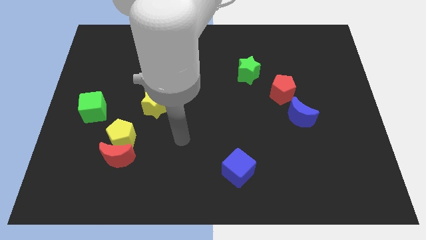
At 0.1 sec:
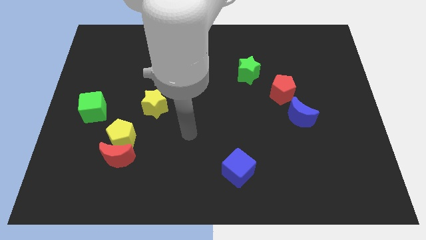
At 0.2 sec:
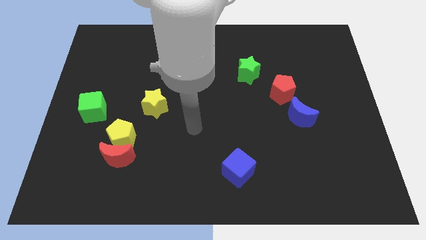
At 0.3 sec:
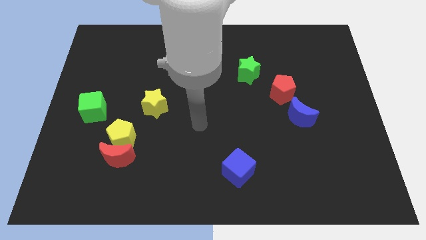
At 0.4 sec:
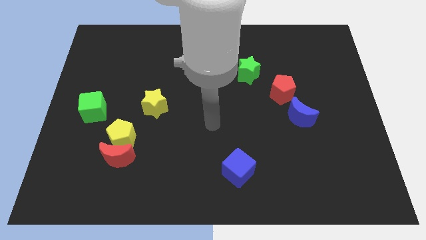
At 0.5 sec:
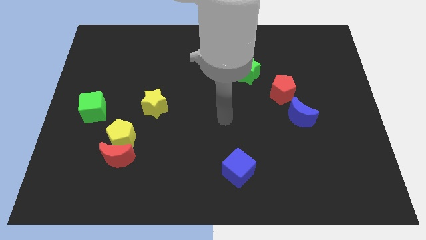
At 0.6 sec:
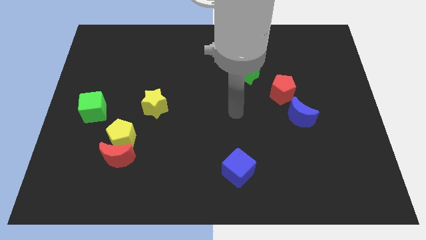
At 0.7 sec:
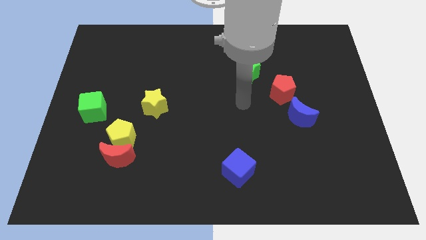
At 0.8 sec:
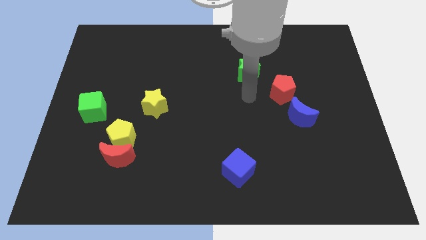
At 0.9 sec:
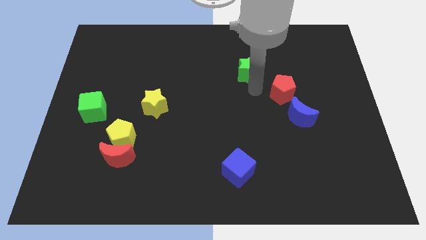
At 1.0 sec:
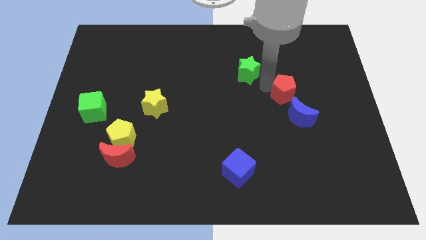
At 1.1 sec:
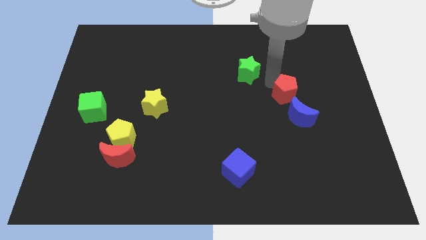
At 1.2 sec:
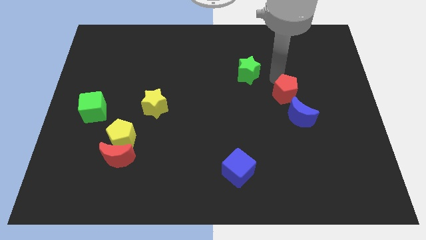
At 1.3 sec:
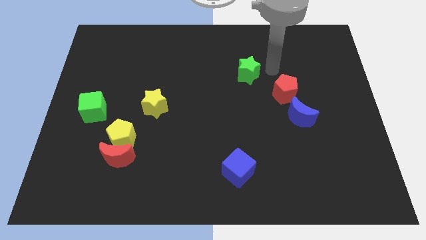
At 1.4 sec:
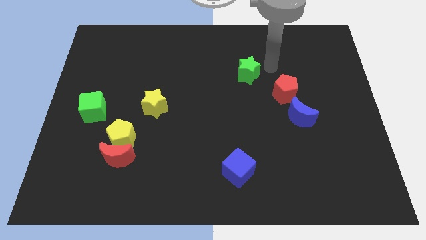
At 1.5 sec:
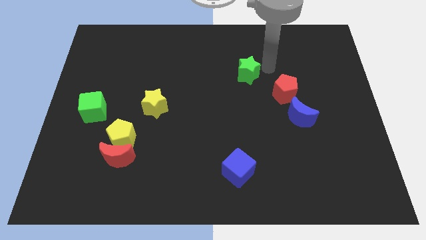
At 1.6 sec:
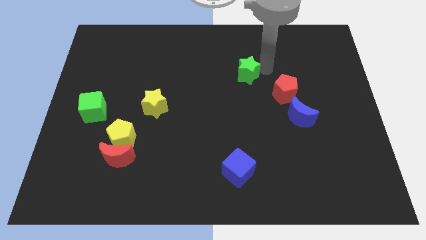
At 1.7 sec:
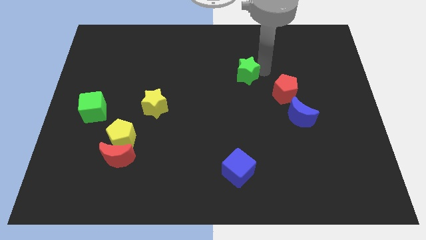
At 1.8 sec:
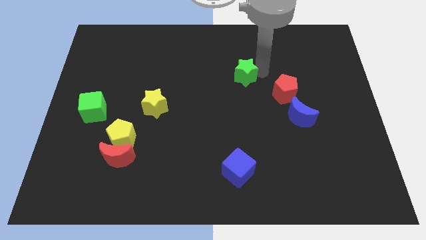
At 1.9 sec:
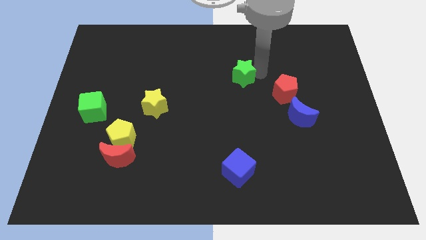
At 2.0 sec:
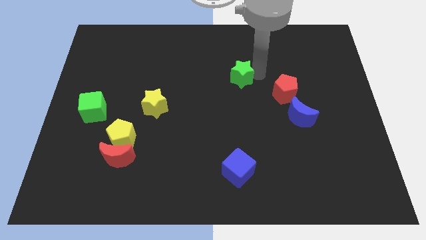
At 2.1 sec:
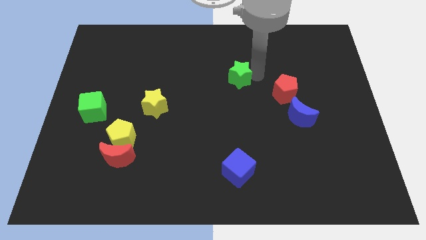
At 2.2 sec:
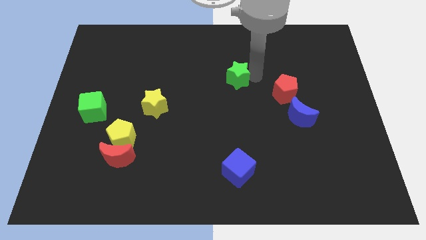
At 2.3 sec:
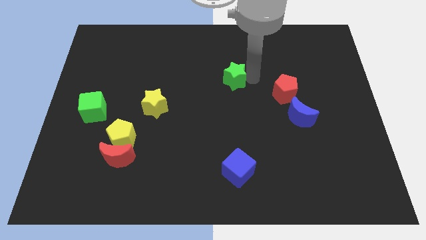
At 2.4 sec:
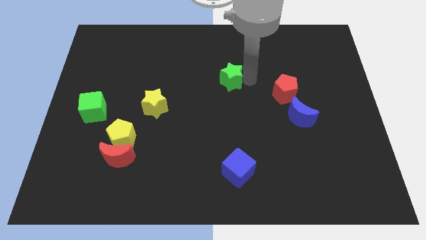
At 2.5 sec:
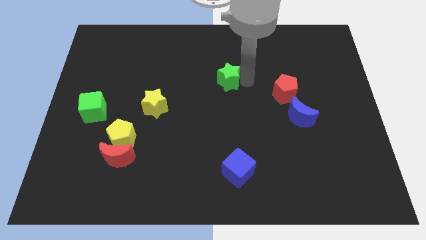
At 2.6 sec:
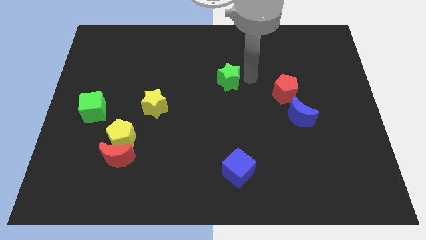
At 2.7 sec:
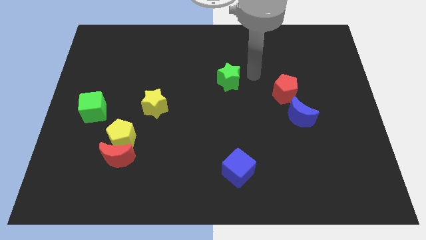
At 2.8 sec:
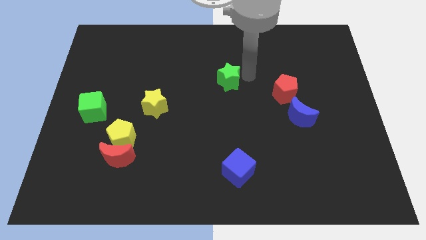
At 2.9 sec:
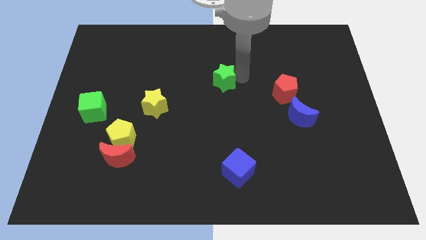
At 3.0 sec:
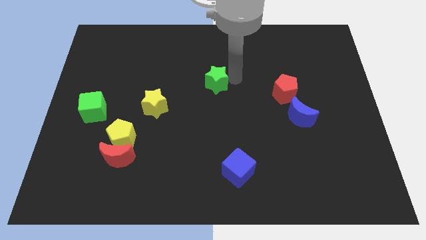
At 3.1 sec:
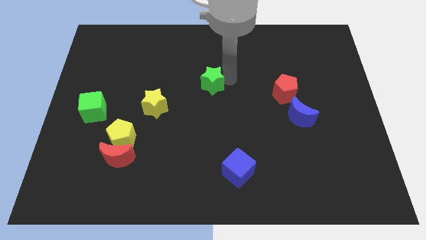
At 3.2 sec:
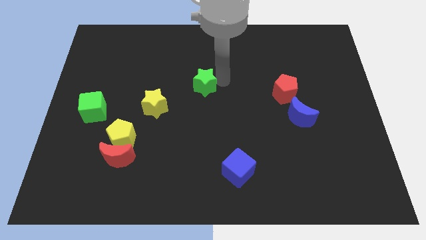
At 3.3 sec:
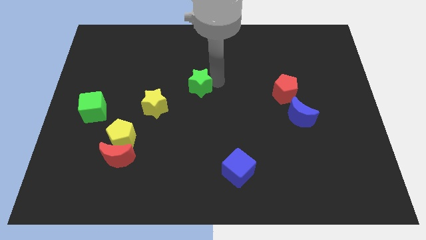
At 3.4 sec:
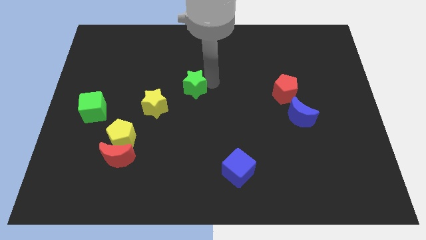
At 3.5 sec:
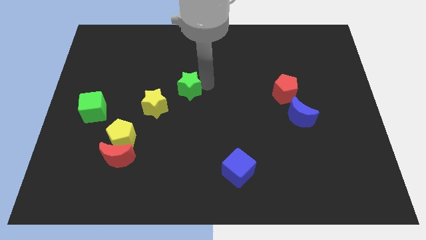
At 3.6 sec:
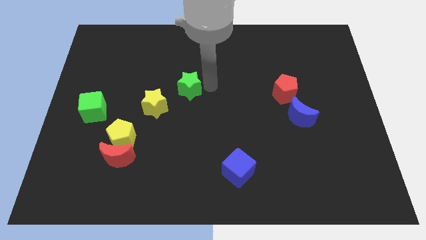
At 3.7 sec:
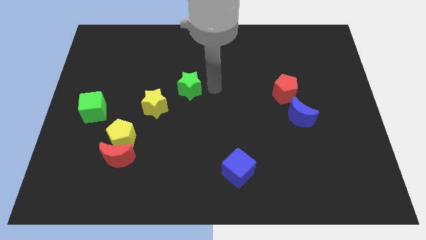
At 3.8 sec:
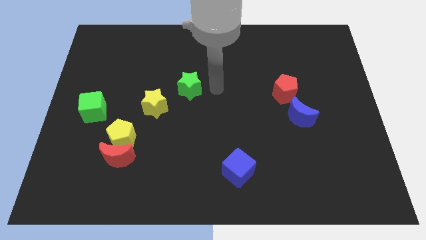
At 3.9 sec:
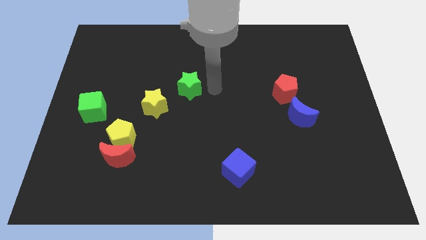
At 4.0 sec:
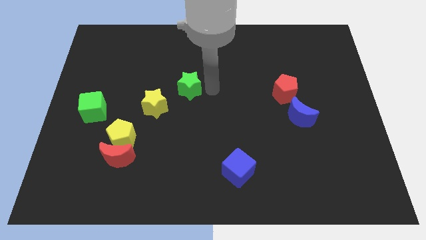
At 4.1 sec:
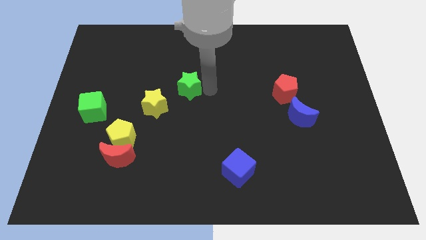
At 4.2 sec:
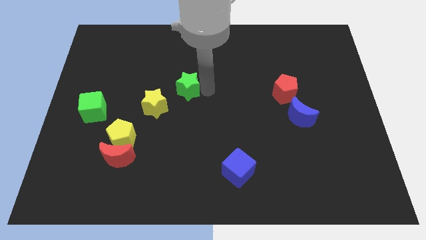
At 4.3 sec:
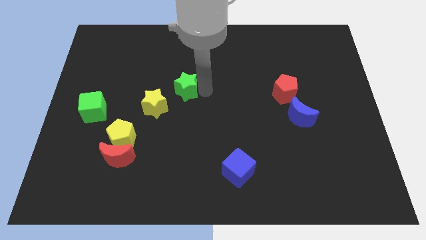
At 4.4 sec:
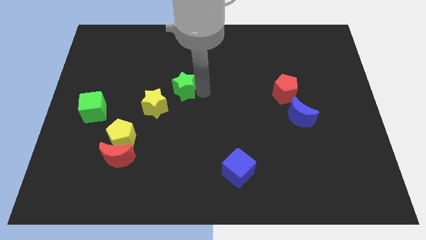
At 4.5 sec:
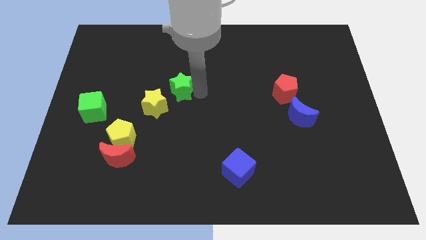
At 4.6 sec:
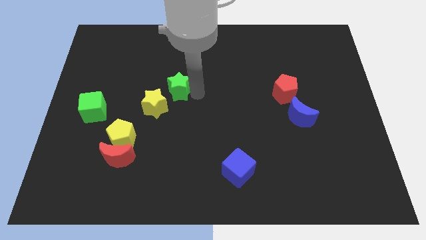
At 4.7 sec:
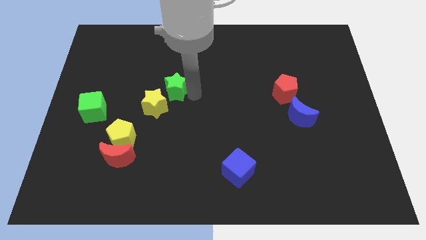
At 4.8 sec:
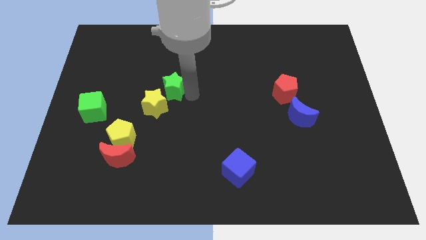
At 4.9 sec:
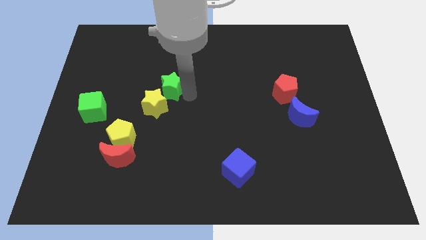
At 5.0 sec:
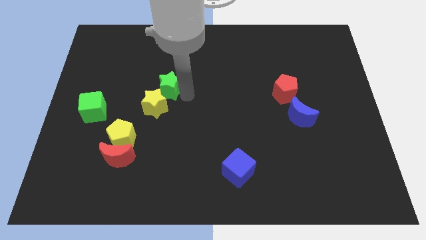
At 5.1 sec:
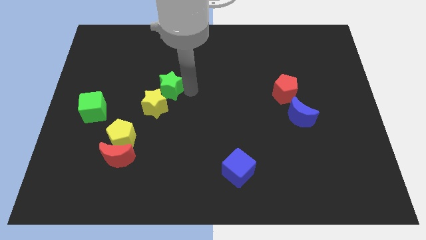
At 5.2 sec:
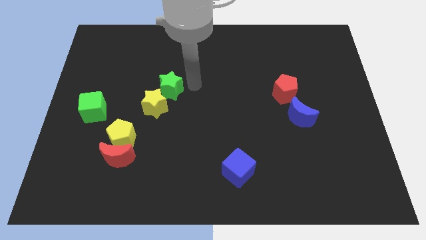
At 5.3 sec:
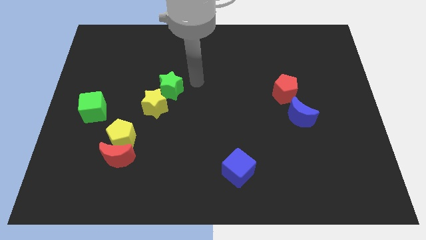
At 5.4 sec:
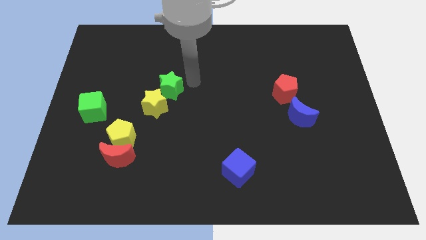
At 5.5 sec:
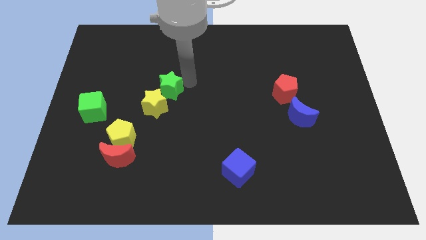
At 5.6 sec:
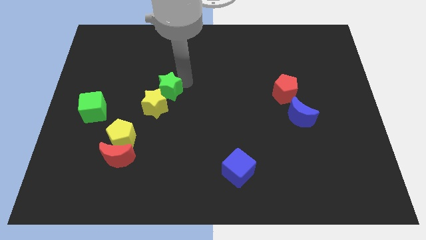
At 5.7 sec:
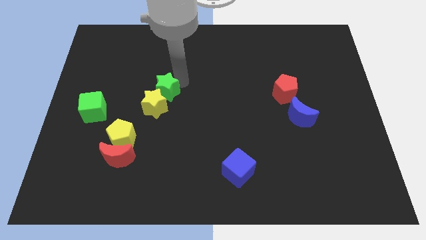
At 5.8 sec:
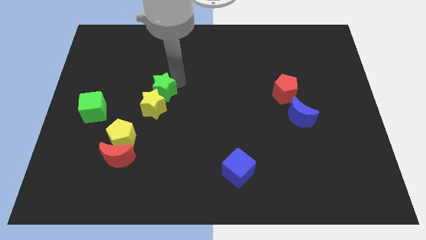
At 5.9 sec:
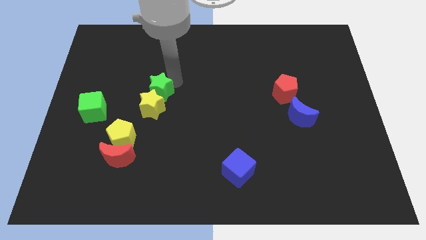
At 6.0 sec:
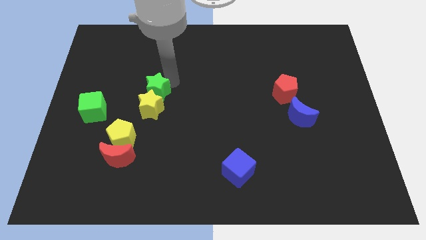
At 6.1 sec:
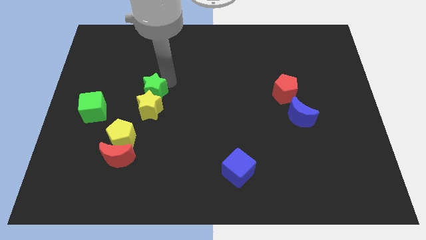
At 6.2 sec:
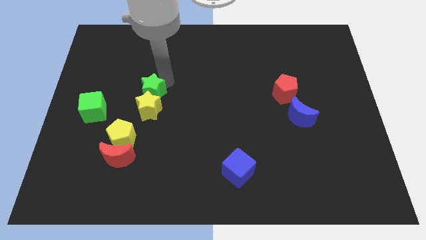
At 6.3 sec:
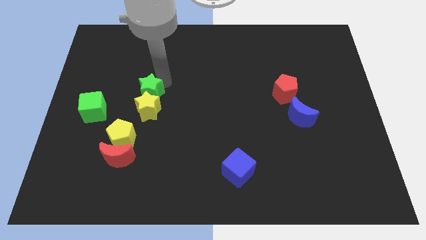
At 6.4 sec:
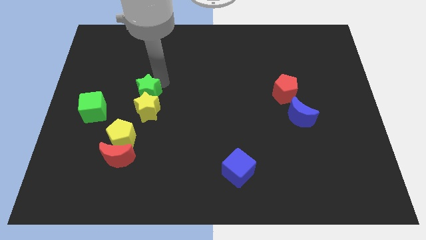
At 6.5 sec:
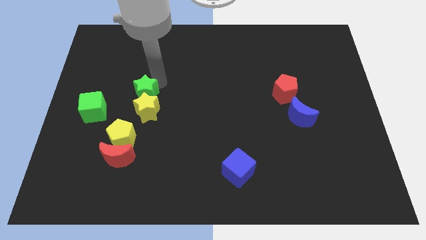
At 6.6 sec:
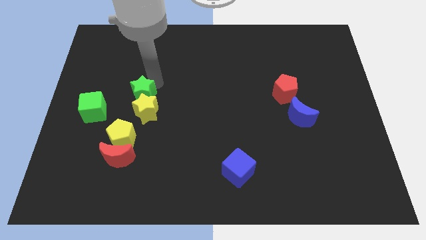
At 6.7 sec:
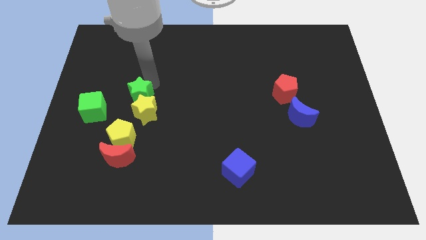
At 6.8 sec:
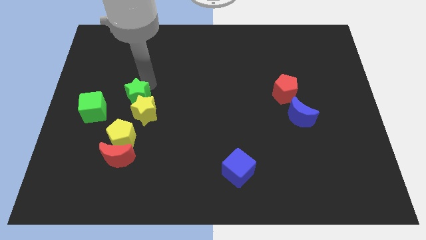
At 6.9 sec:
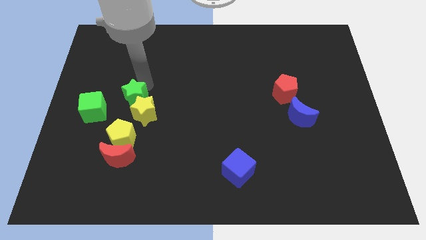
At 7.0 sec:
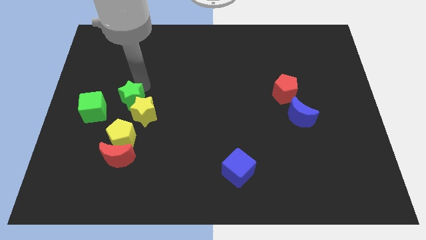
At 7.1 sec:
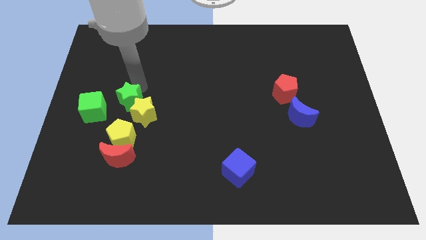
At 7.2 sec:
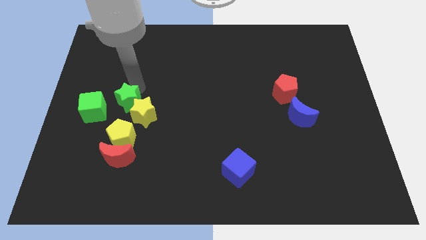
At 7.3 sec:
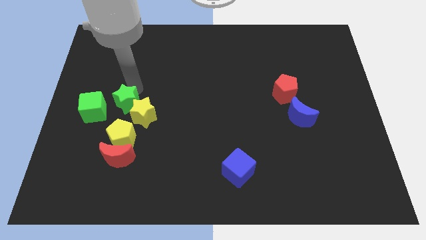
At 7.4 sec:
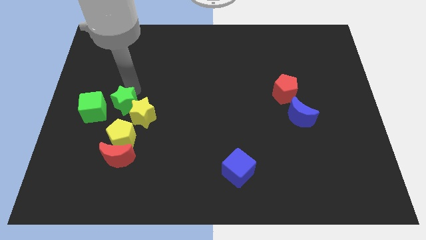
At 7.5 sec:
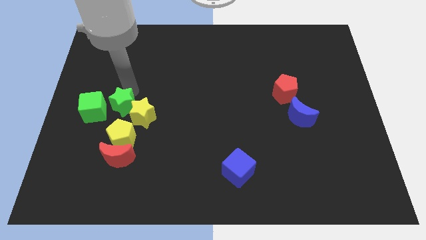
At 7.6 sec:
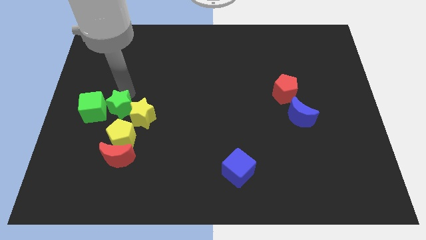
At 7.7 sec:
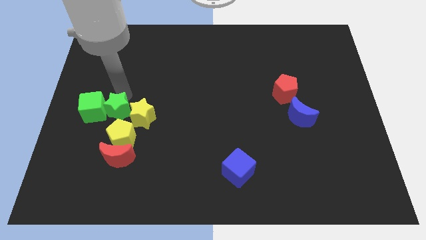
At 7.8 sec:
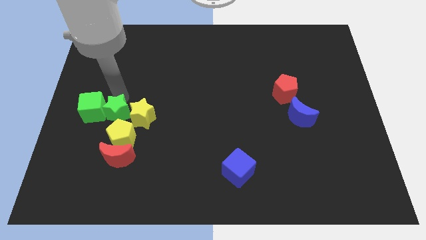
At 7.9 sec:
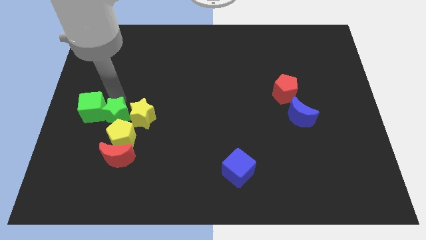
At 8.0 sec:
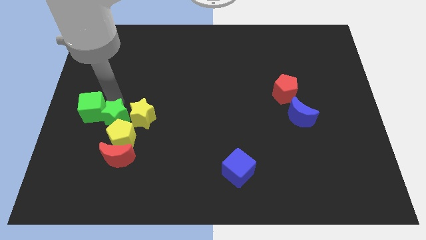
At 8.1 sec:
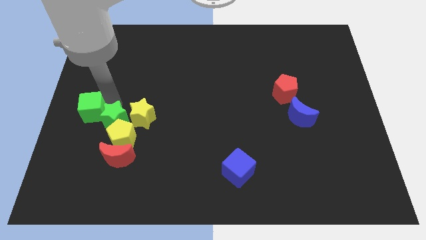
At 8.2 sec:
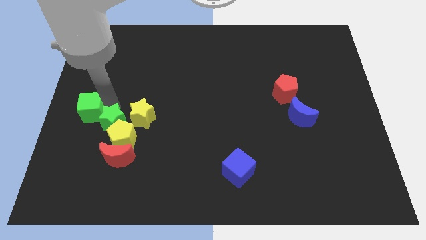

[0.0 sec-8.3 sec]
push the green star diagonally up and to the left of the red moon

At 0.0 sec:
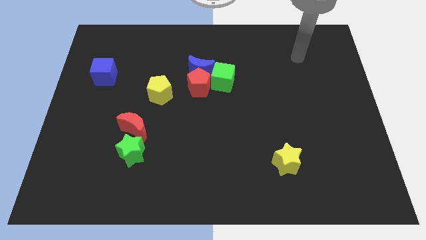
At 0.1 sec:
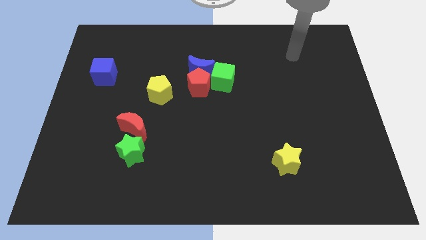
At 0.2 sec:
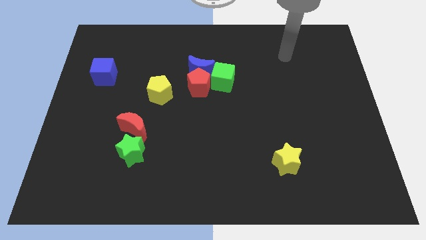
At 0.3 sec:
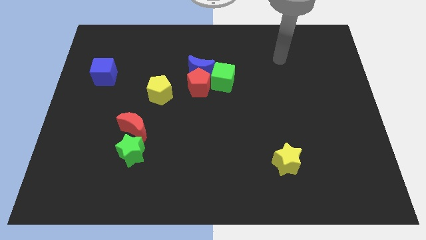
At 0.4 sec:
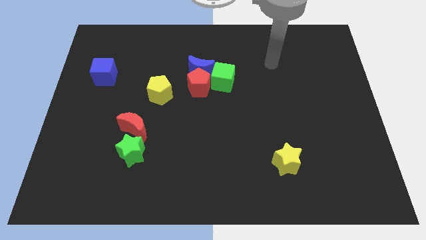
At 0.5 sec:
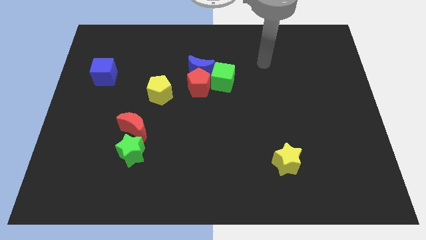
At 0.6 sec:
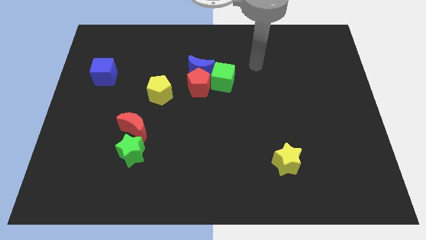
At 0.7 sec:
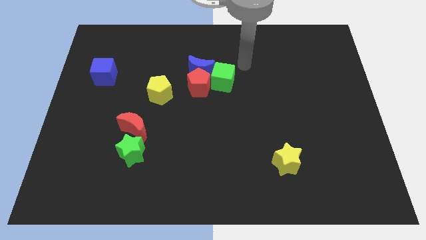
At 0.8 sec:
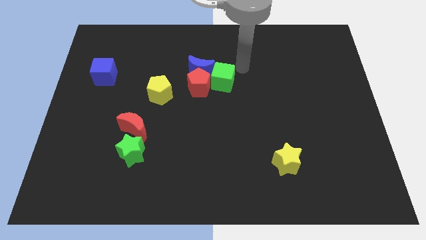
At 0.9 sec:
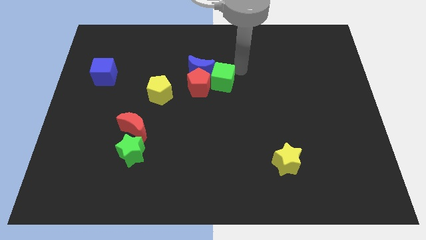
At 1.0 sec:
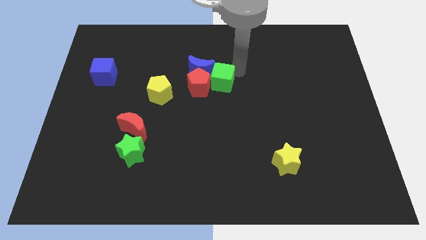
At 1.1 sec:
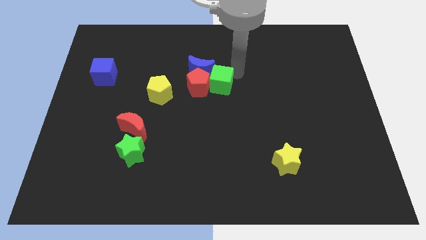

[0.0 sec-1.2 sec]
push the green cube just right of the yellow pentagon
